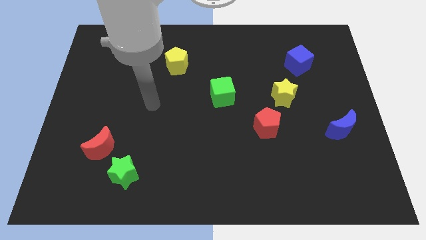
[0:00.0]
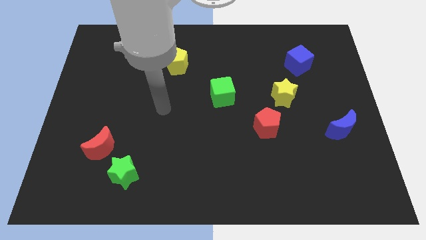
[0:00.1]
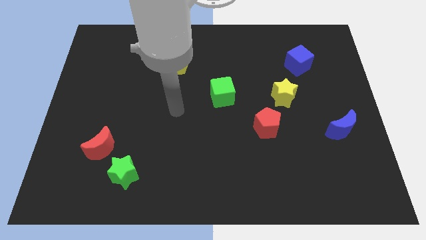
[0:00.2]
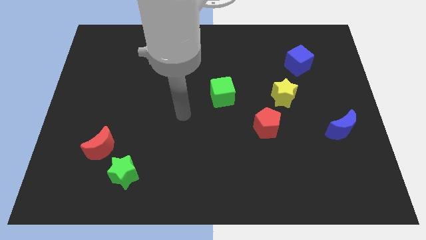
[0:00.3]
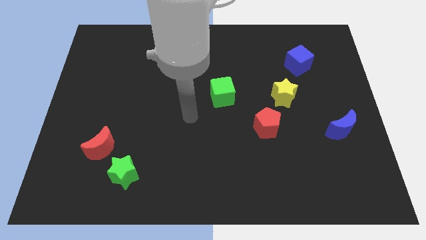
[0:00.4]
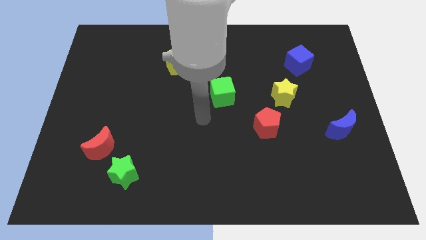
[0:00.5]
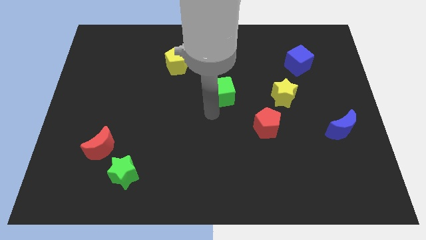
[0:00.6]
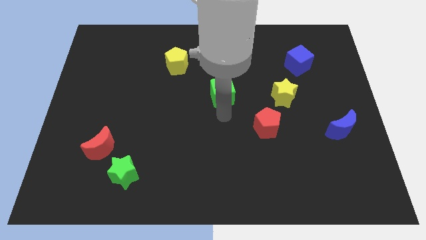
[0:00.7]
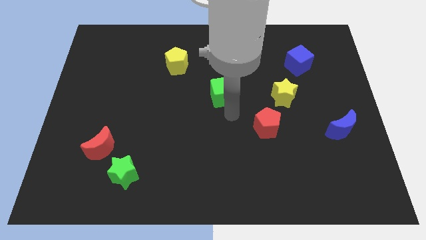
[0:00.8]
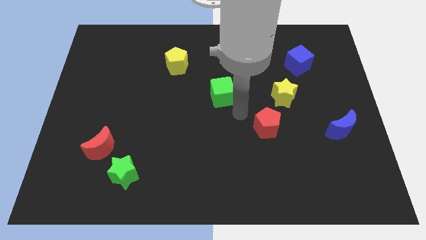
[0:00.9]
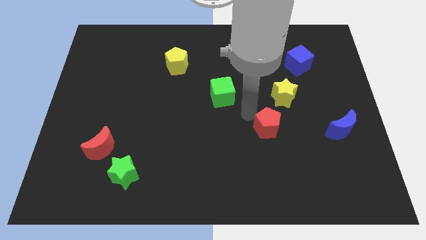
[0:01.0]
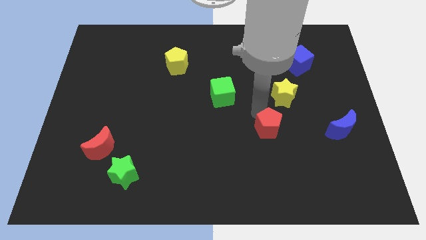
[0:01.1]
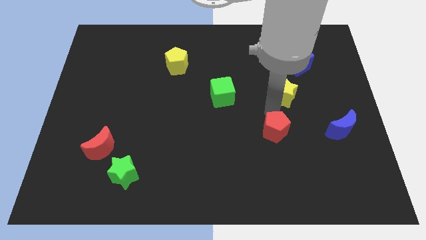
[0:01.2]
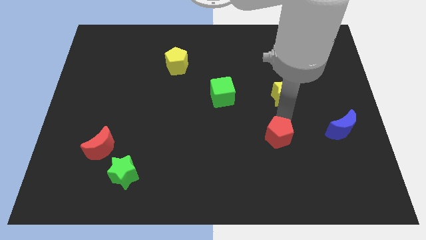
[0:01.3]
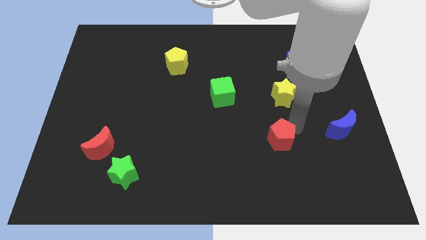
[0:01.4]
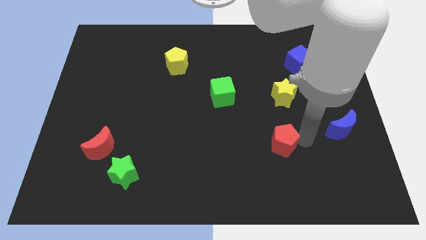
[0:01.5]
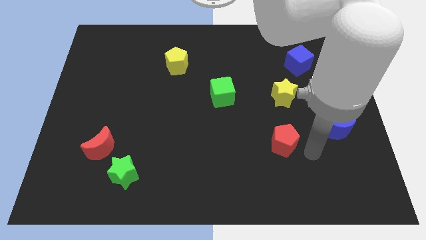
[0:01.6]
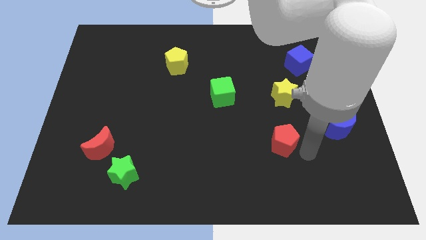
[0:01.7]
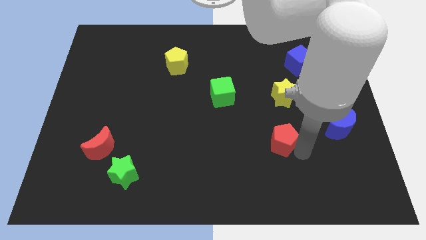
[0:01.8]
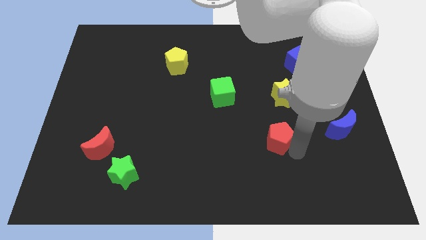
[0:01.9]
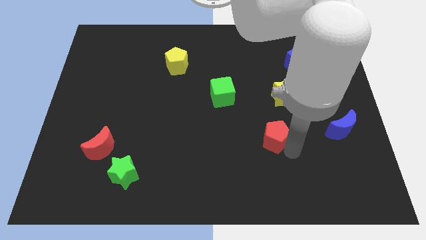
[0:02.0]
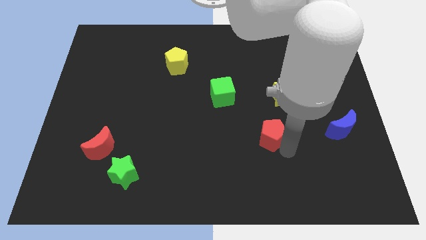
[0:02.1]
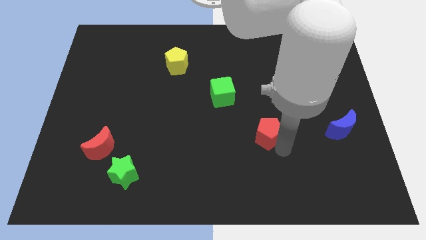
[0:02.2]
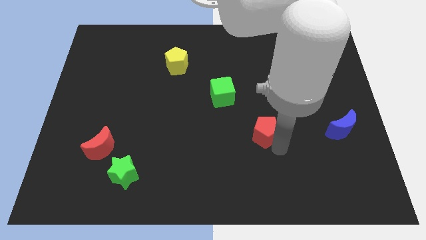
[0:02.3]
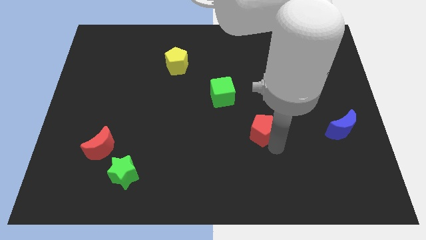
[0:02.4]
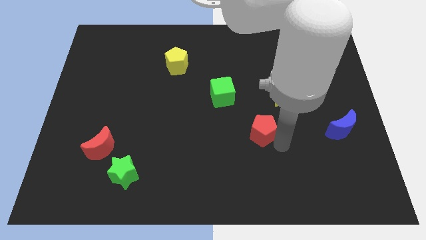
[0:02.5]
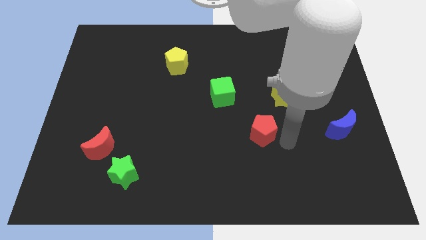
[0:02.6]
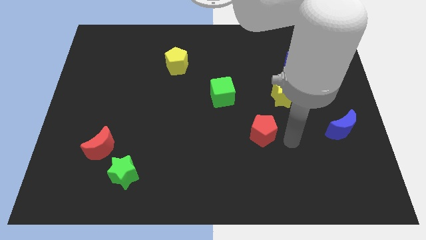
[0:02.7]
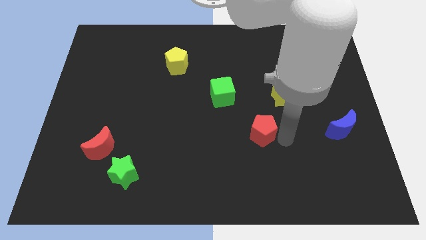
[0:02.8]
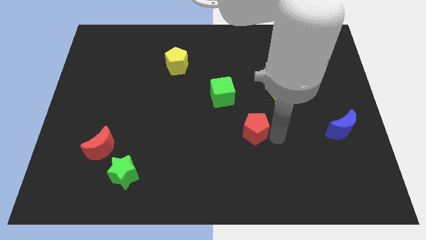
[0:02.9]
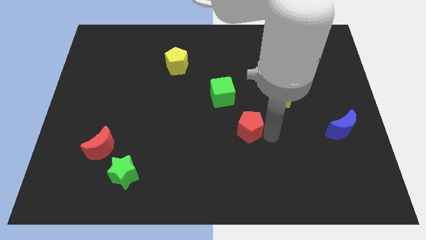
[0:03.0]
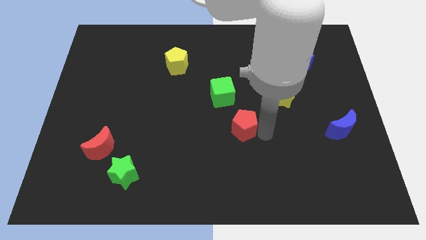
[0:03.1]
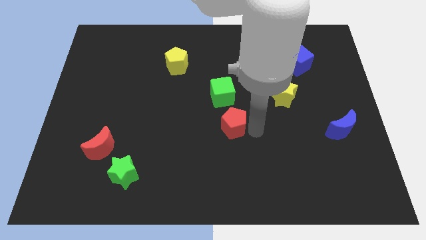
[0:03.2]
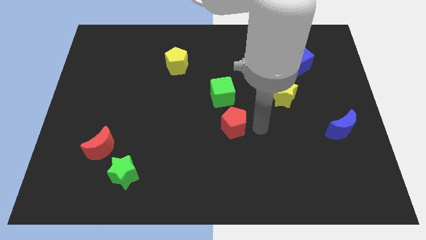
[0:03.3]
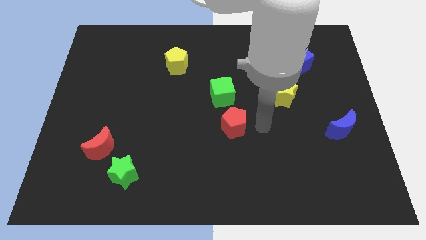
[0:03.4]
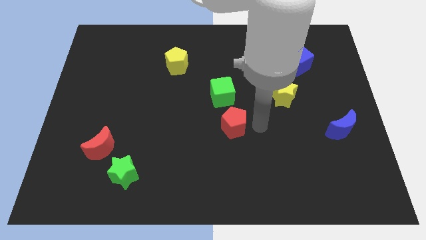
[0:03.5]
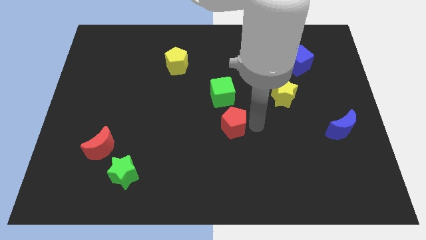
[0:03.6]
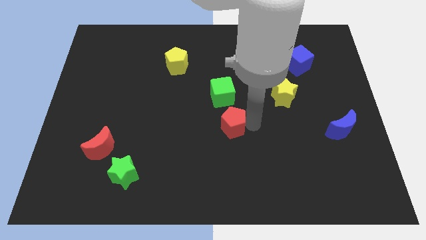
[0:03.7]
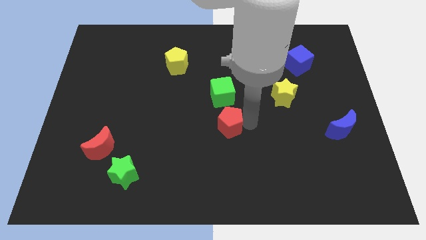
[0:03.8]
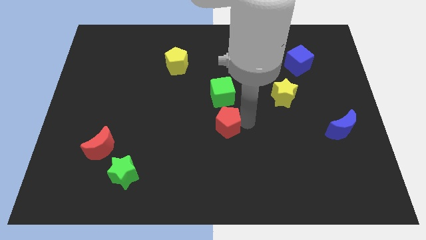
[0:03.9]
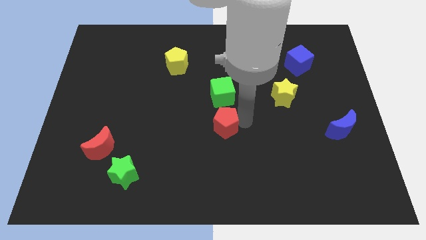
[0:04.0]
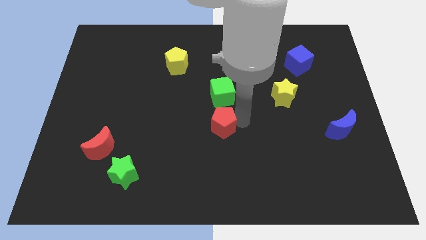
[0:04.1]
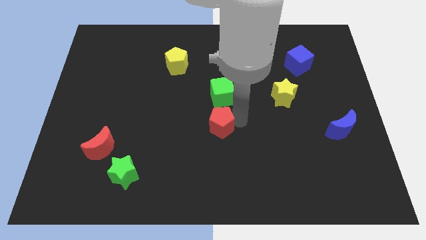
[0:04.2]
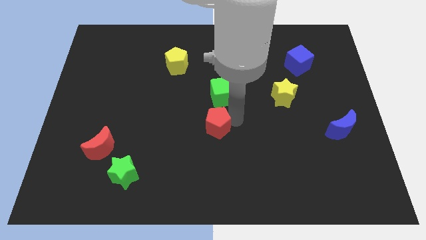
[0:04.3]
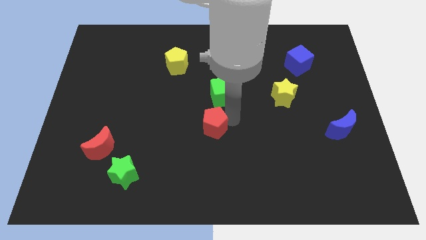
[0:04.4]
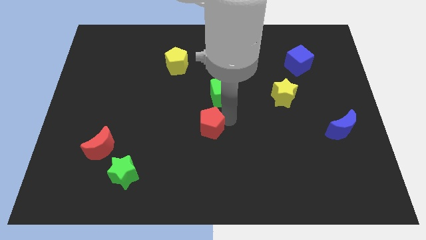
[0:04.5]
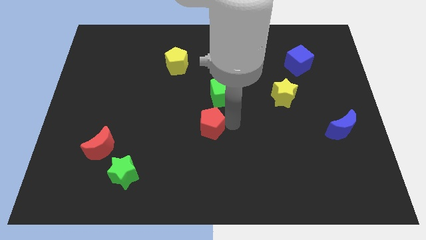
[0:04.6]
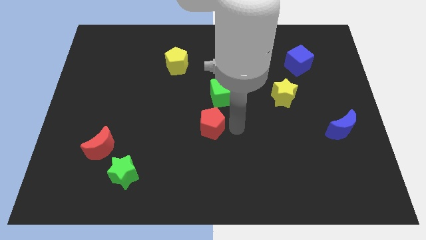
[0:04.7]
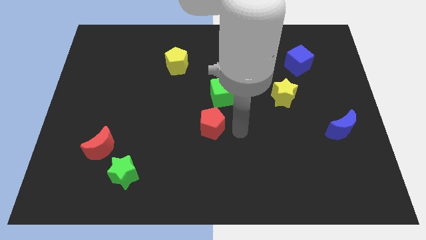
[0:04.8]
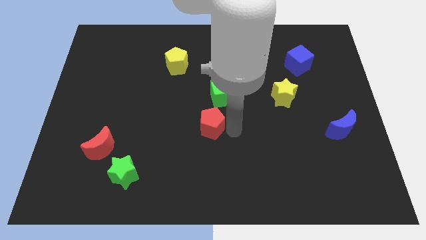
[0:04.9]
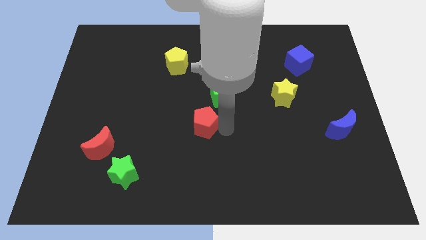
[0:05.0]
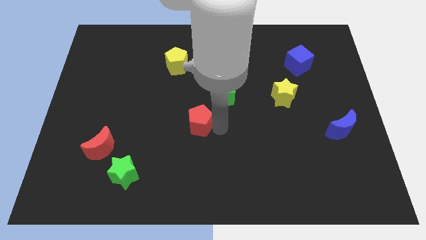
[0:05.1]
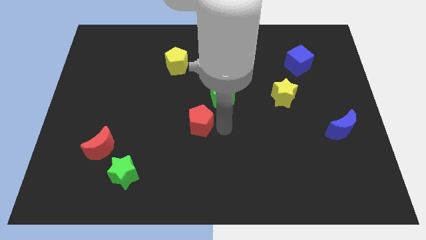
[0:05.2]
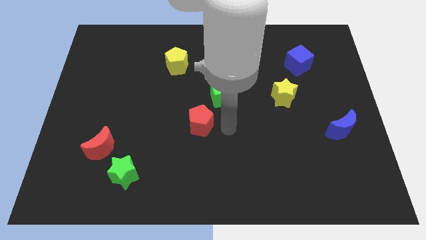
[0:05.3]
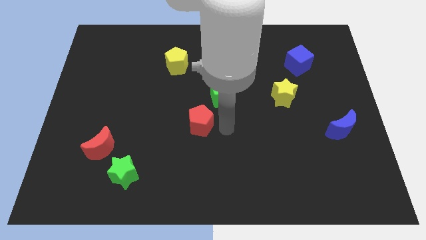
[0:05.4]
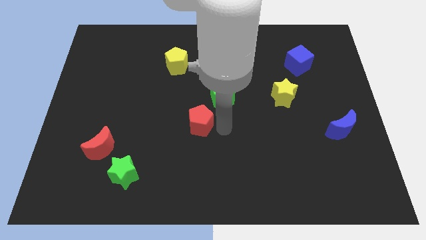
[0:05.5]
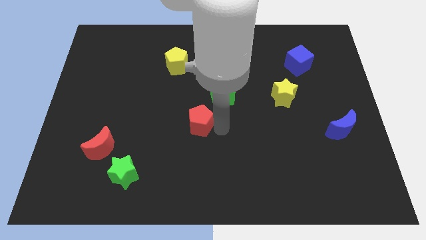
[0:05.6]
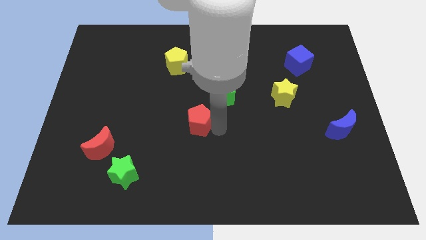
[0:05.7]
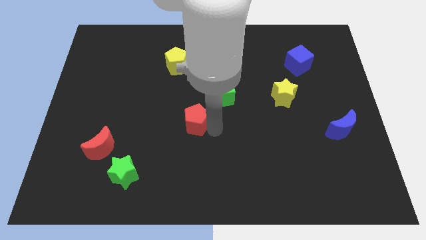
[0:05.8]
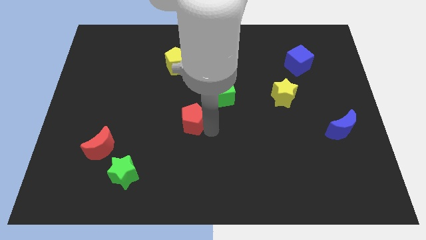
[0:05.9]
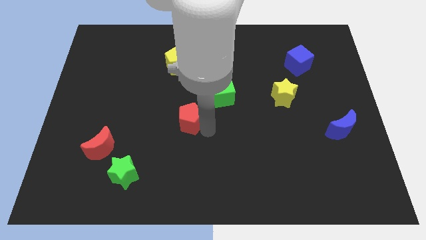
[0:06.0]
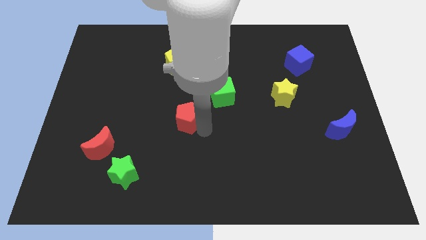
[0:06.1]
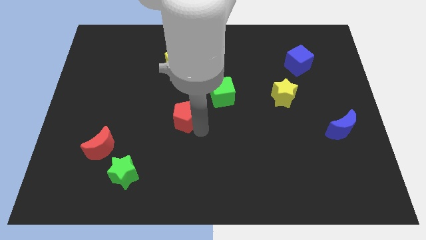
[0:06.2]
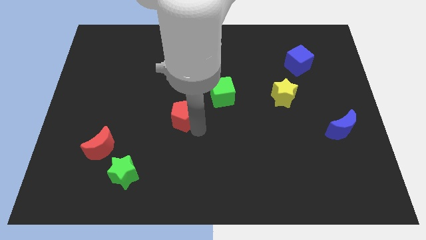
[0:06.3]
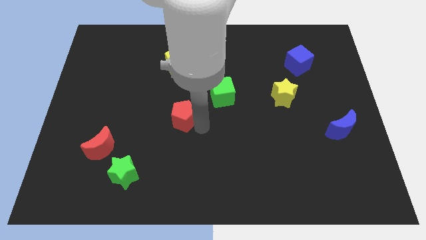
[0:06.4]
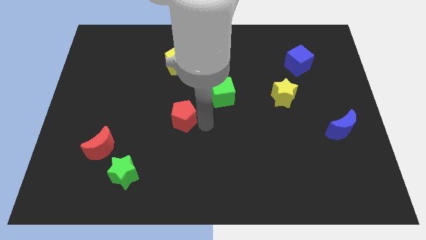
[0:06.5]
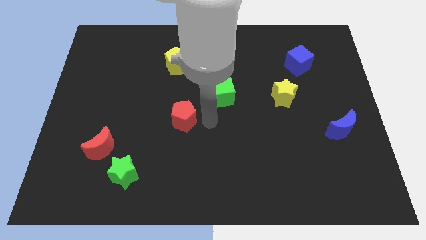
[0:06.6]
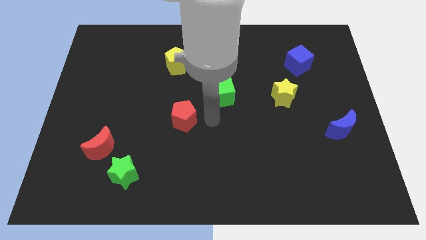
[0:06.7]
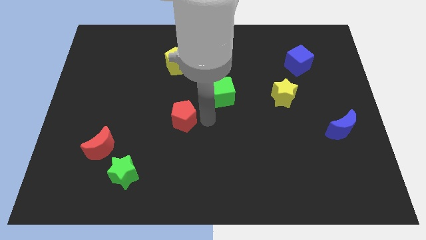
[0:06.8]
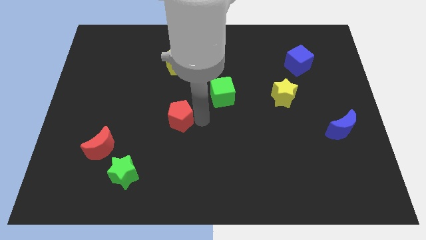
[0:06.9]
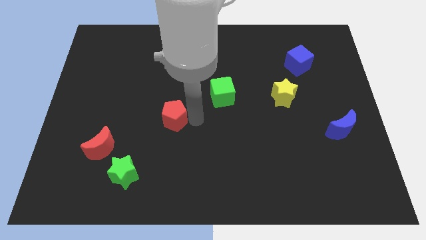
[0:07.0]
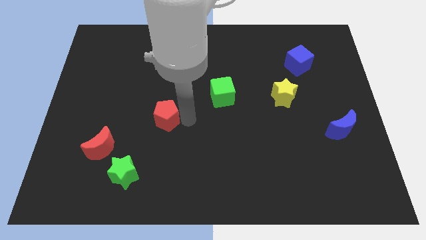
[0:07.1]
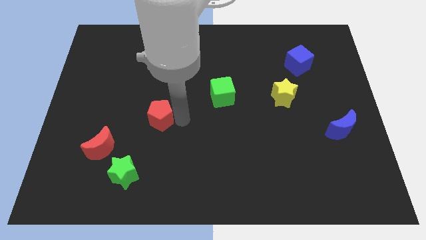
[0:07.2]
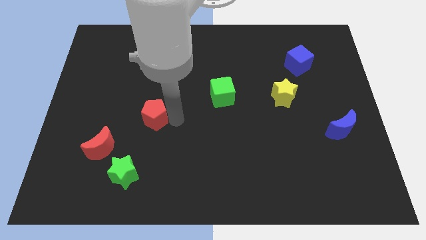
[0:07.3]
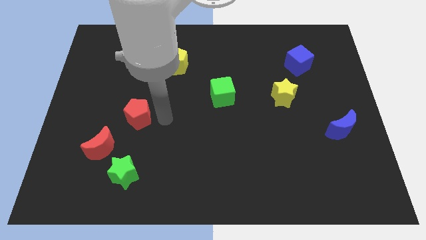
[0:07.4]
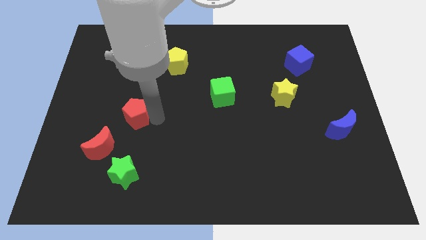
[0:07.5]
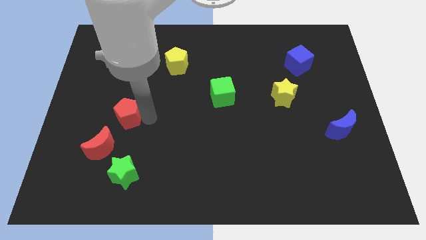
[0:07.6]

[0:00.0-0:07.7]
move the red pentagon above the red moon
